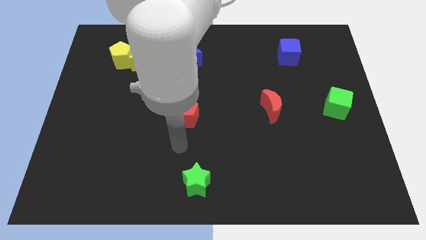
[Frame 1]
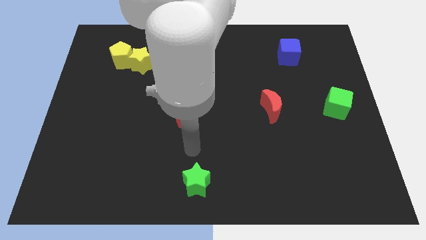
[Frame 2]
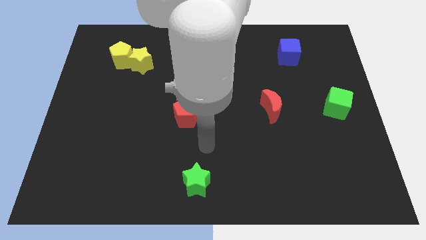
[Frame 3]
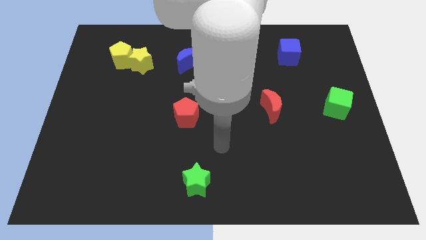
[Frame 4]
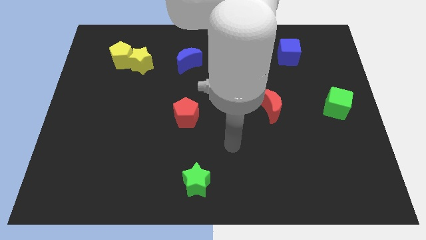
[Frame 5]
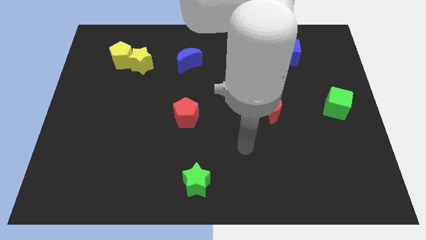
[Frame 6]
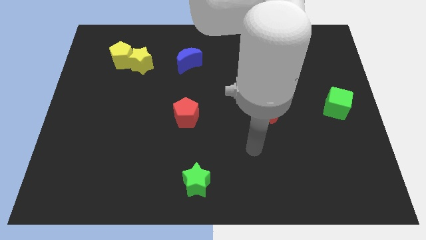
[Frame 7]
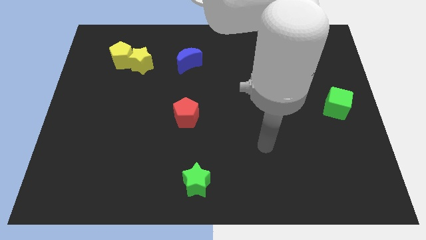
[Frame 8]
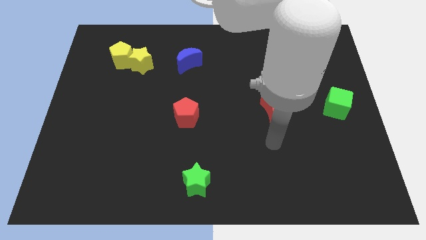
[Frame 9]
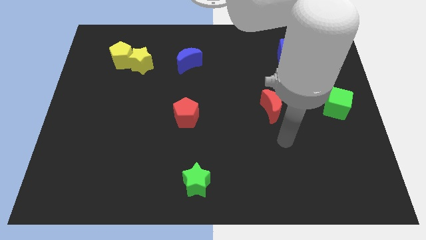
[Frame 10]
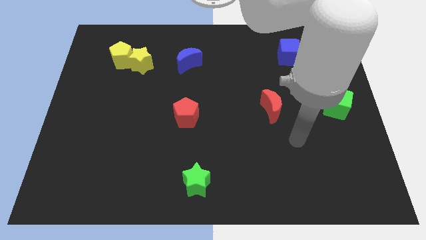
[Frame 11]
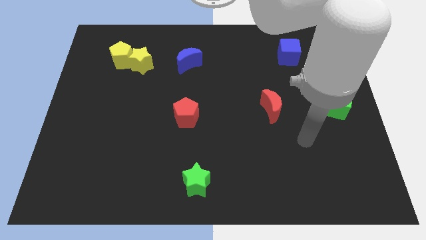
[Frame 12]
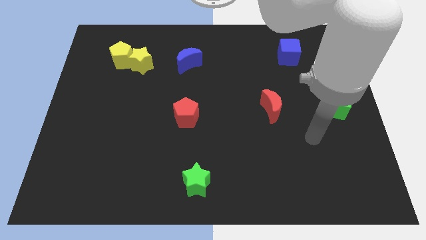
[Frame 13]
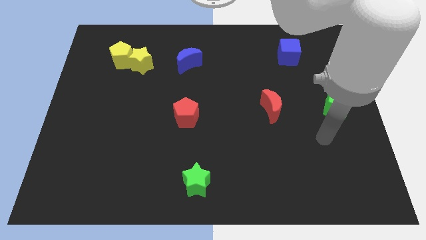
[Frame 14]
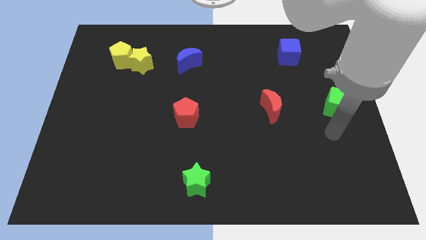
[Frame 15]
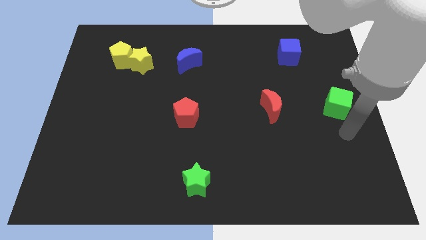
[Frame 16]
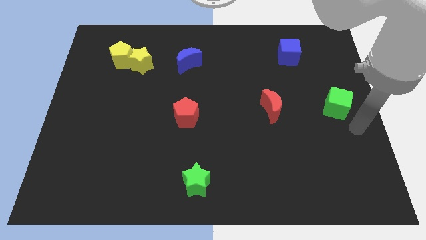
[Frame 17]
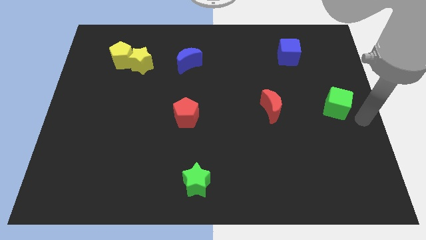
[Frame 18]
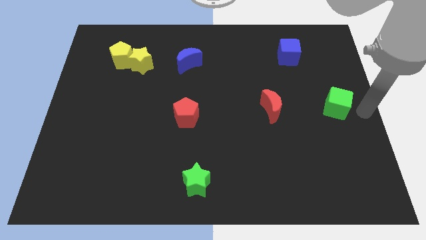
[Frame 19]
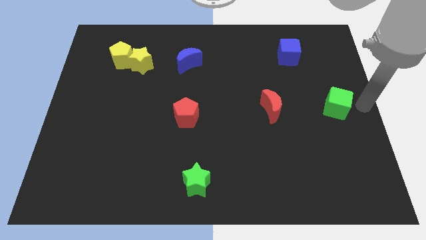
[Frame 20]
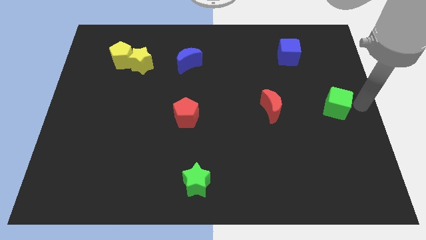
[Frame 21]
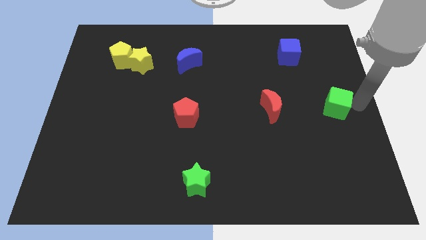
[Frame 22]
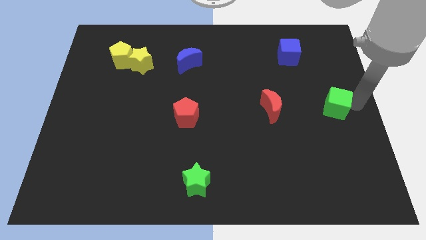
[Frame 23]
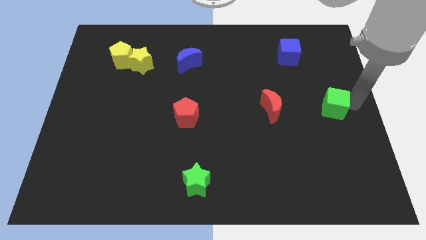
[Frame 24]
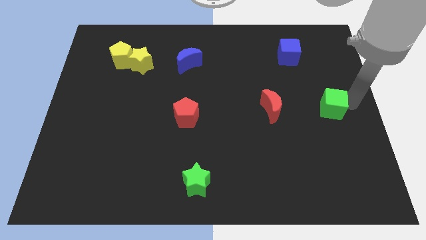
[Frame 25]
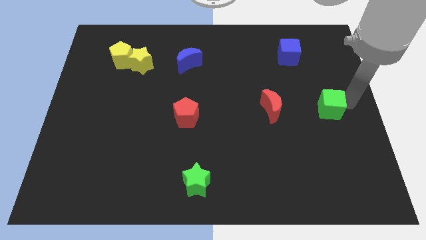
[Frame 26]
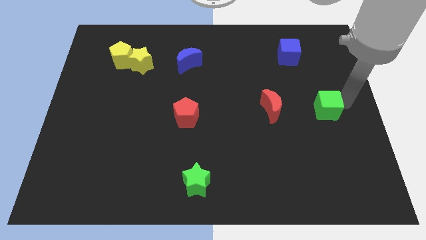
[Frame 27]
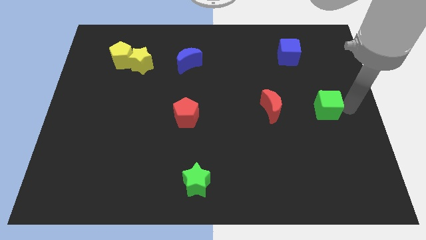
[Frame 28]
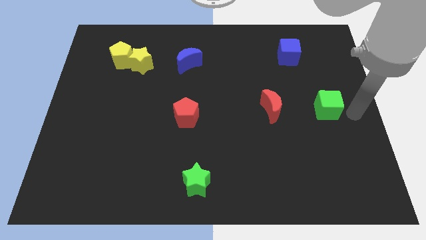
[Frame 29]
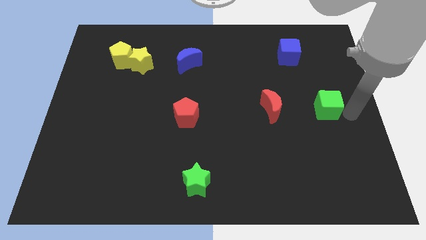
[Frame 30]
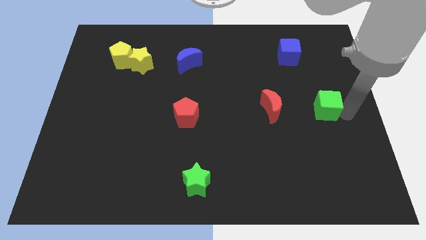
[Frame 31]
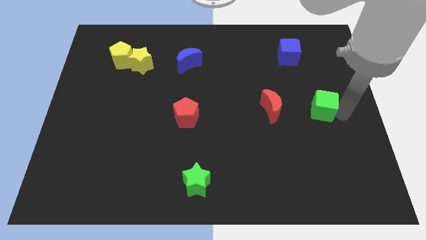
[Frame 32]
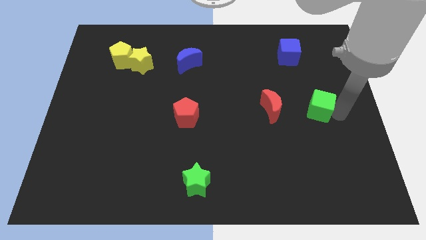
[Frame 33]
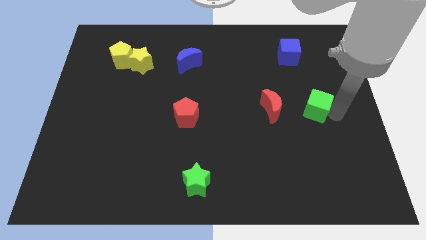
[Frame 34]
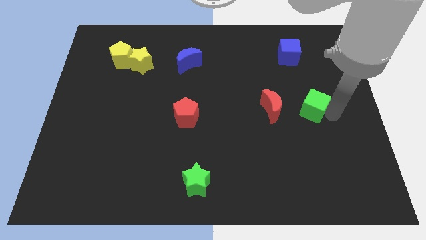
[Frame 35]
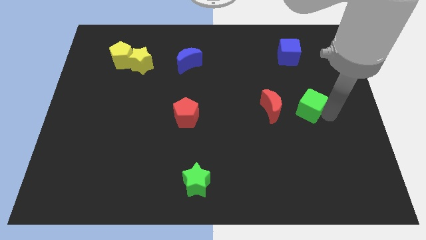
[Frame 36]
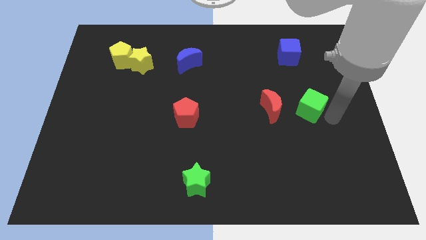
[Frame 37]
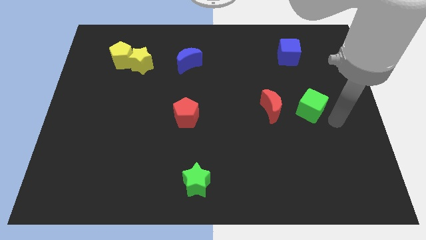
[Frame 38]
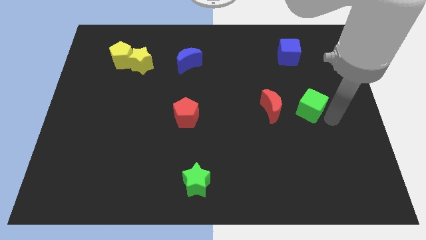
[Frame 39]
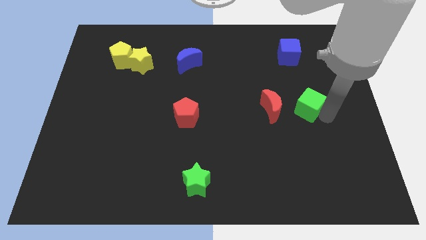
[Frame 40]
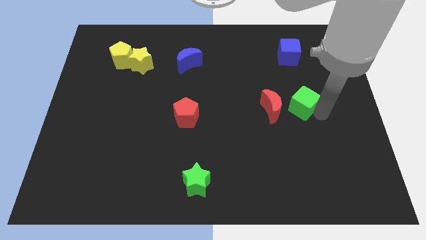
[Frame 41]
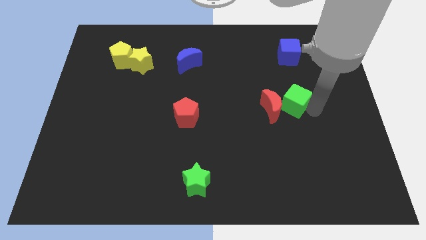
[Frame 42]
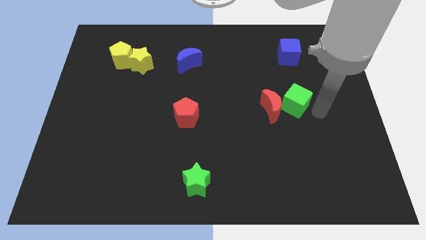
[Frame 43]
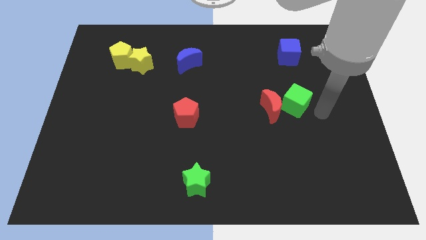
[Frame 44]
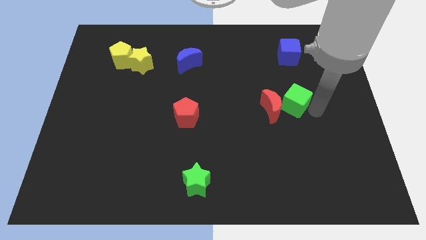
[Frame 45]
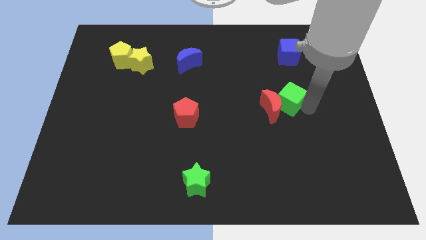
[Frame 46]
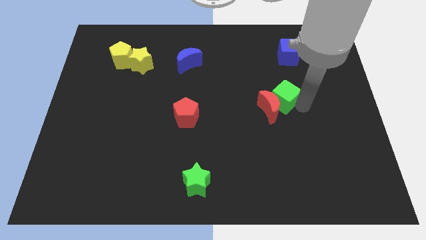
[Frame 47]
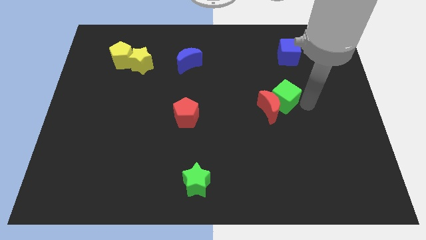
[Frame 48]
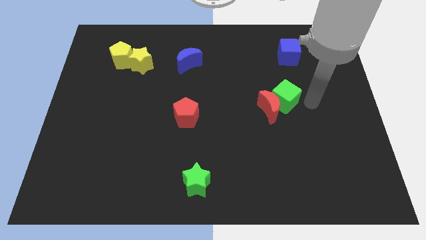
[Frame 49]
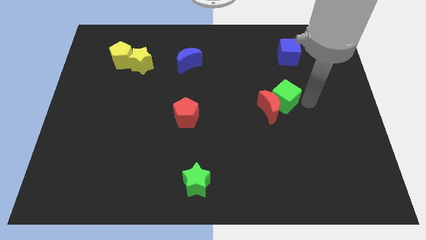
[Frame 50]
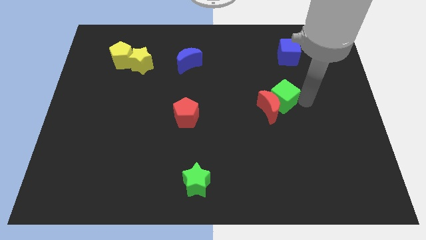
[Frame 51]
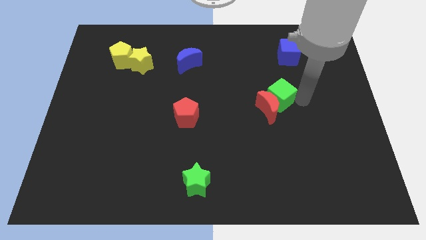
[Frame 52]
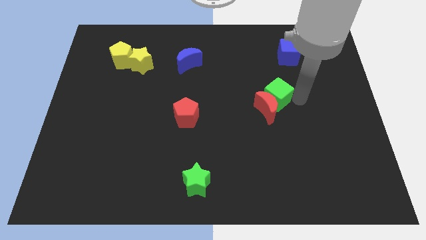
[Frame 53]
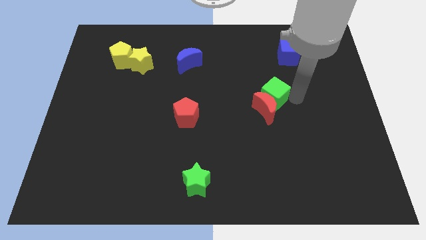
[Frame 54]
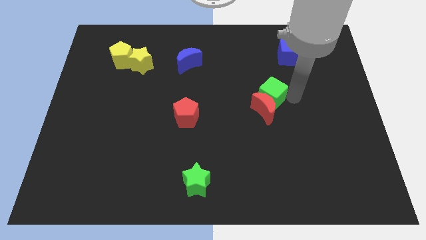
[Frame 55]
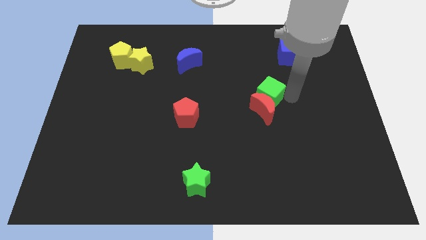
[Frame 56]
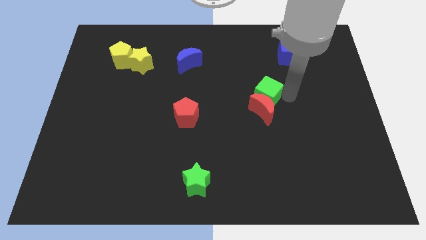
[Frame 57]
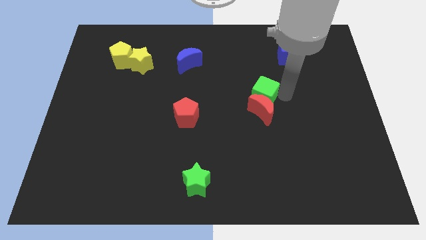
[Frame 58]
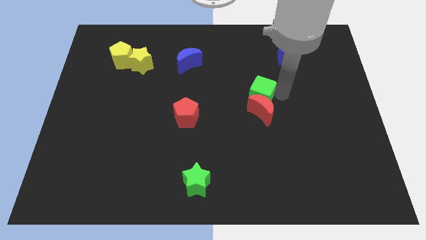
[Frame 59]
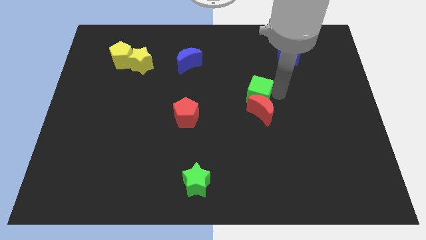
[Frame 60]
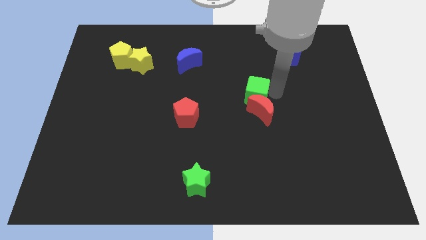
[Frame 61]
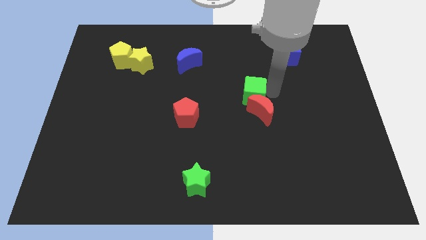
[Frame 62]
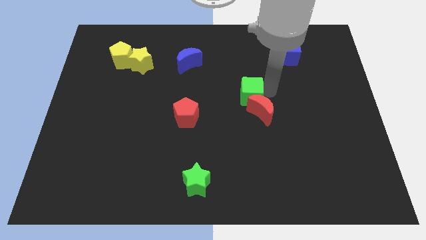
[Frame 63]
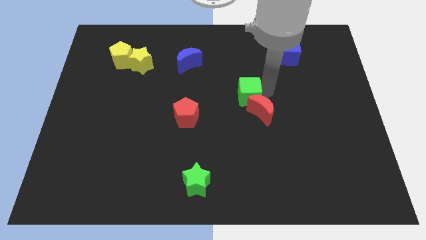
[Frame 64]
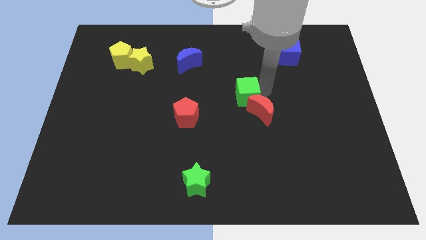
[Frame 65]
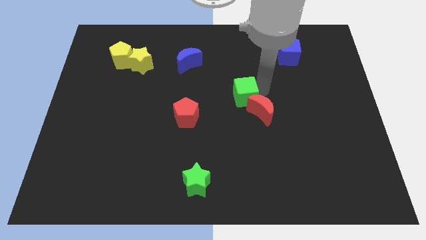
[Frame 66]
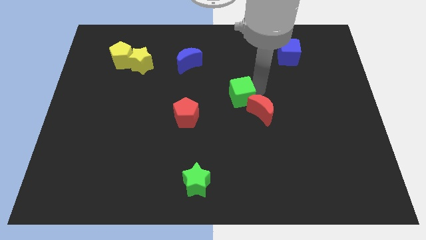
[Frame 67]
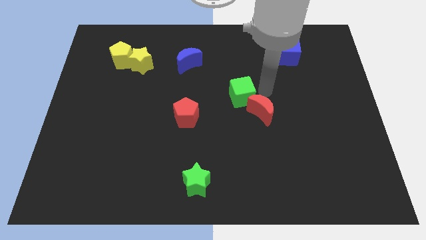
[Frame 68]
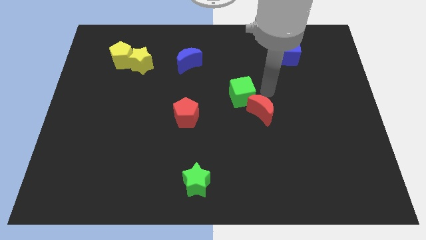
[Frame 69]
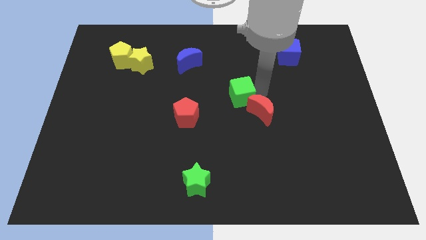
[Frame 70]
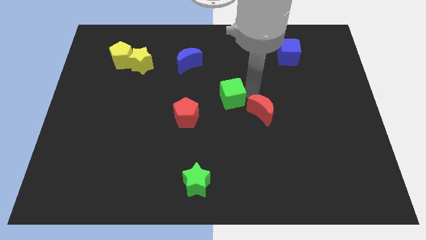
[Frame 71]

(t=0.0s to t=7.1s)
move the green cube diagonally up and to the right of the red pentagon

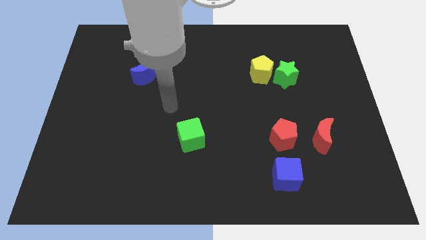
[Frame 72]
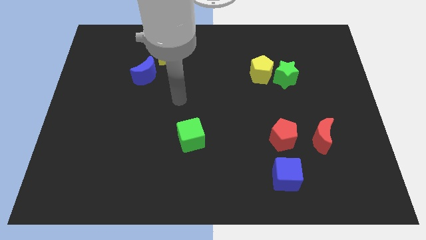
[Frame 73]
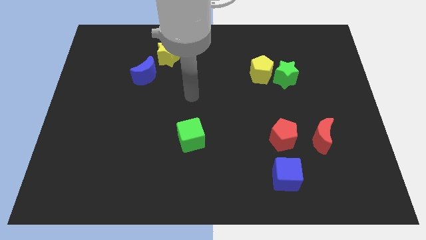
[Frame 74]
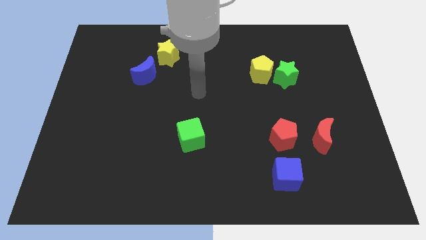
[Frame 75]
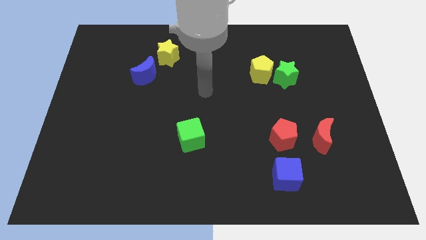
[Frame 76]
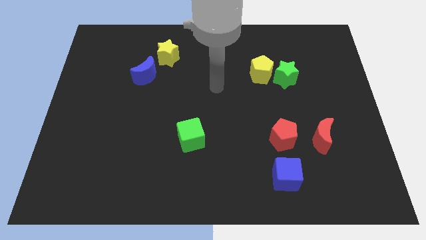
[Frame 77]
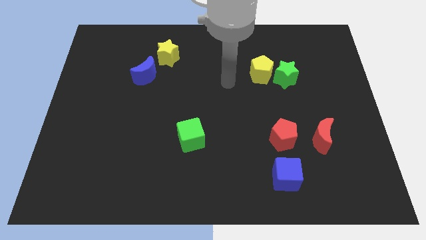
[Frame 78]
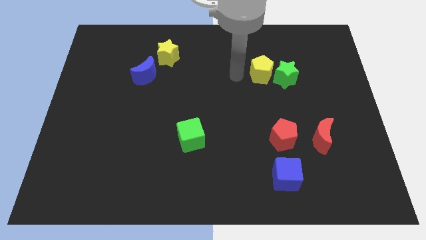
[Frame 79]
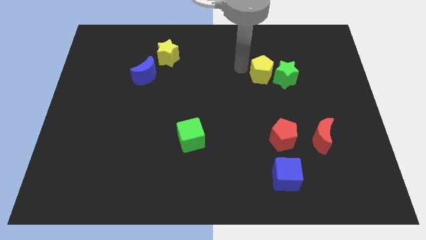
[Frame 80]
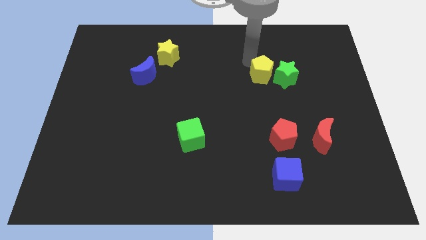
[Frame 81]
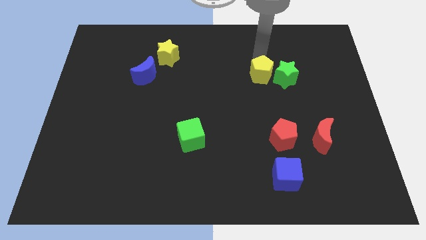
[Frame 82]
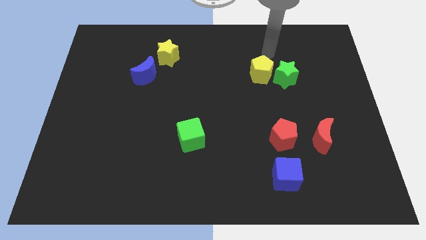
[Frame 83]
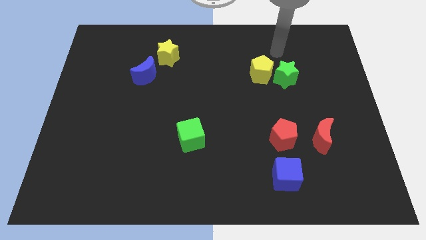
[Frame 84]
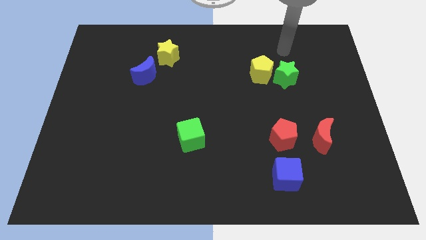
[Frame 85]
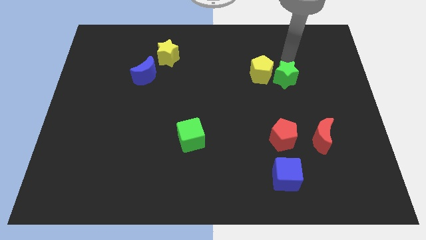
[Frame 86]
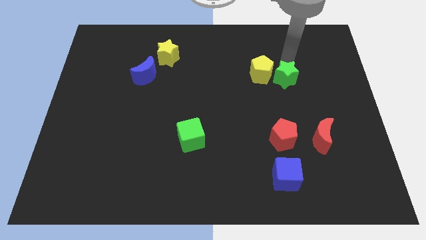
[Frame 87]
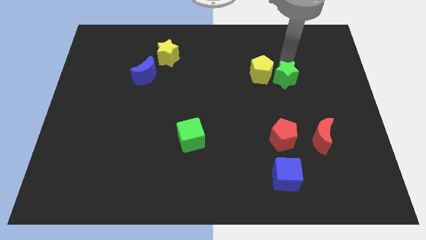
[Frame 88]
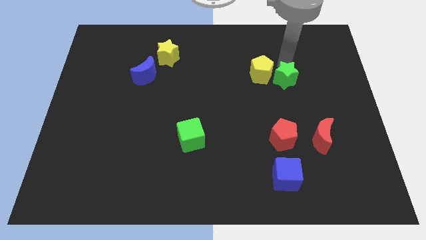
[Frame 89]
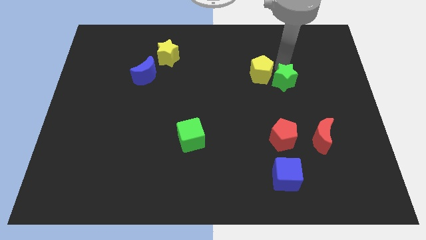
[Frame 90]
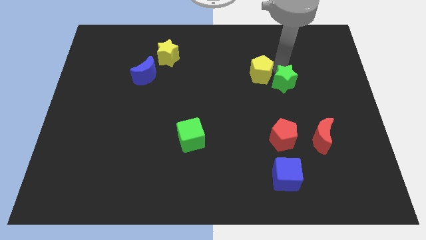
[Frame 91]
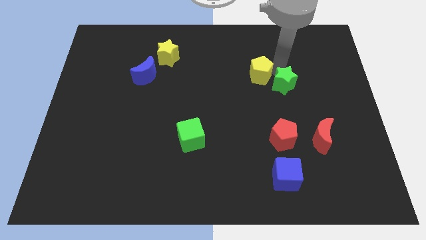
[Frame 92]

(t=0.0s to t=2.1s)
put the green star to the top of the red pentagon
